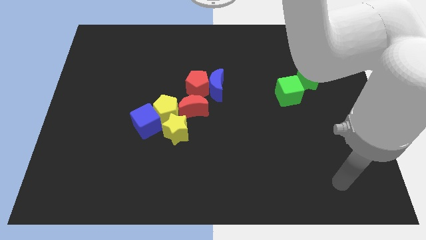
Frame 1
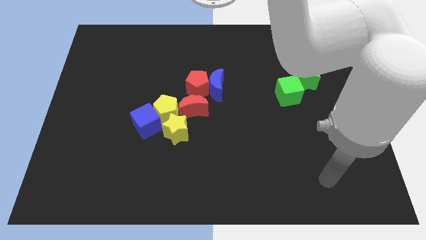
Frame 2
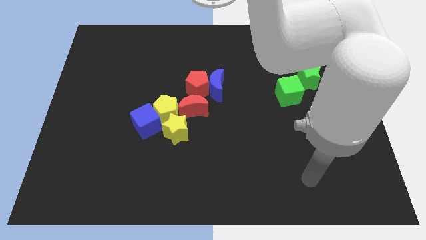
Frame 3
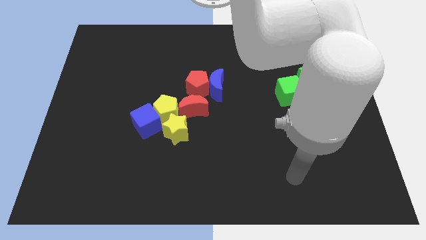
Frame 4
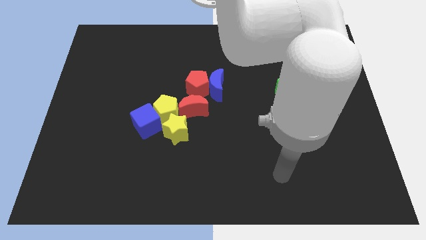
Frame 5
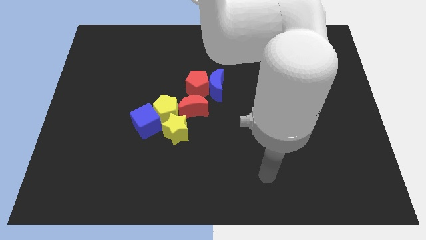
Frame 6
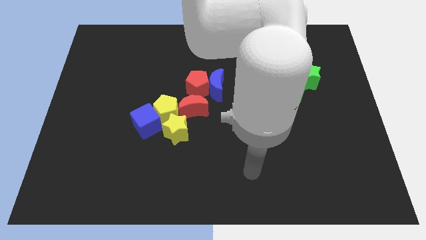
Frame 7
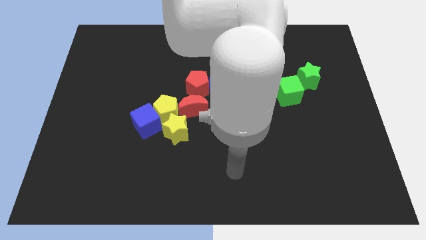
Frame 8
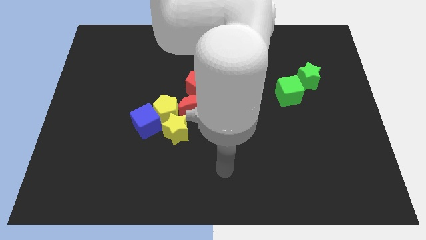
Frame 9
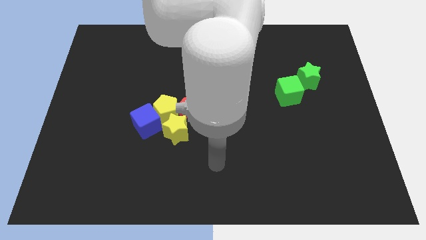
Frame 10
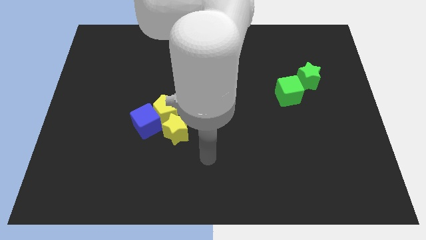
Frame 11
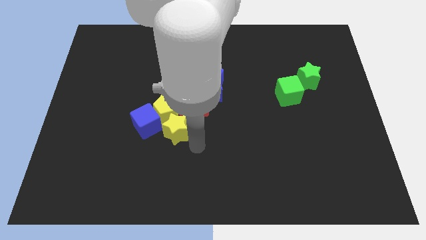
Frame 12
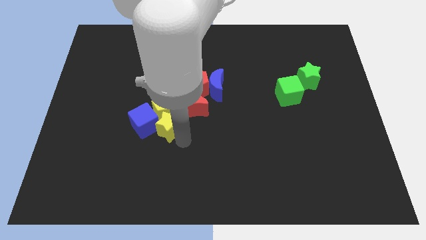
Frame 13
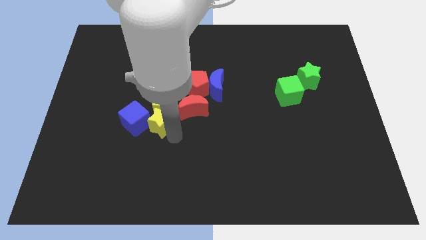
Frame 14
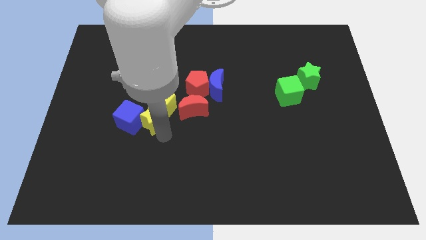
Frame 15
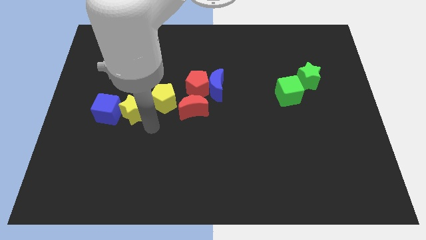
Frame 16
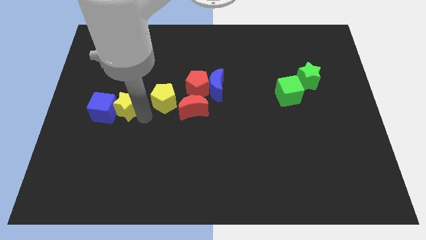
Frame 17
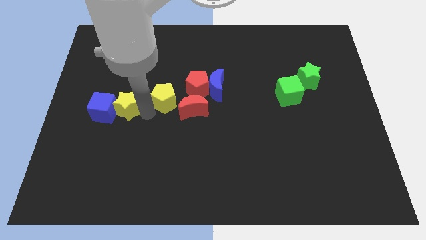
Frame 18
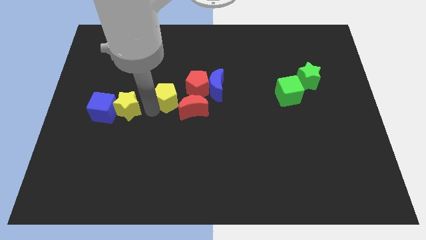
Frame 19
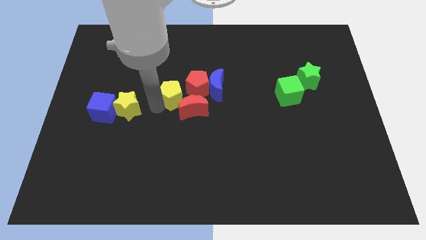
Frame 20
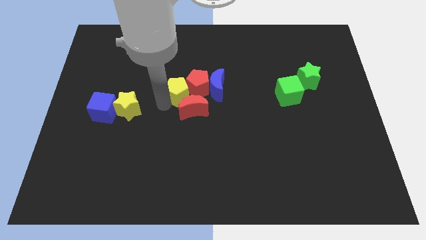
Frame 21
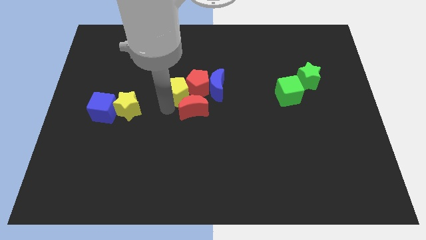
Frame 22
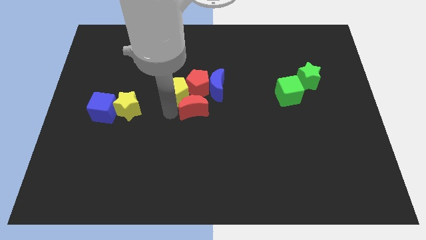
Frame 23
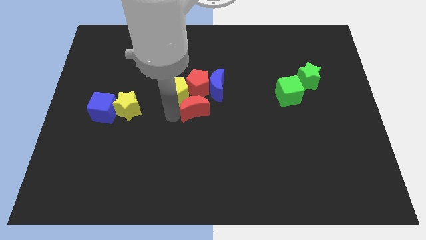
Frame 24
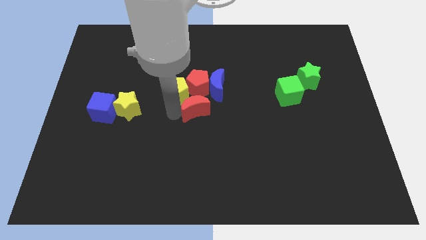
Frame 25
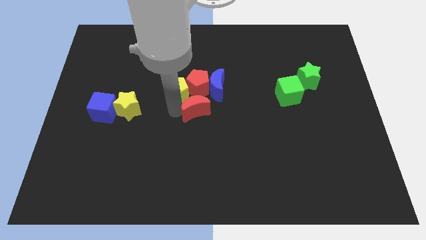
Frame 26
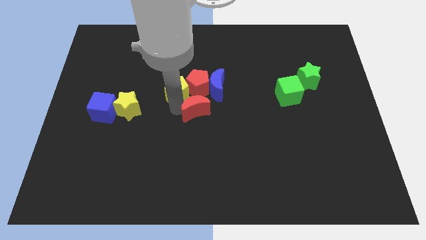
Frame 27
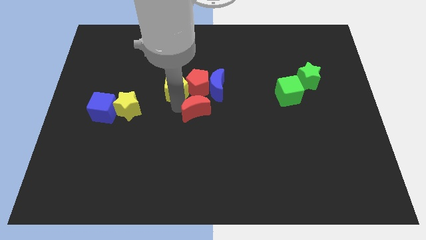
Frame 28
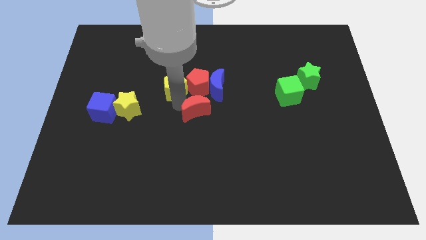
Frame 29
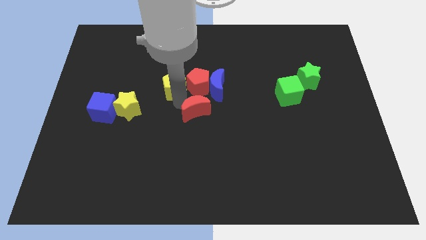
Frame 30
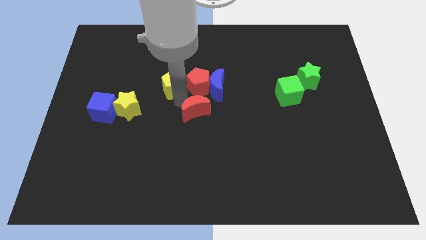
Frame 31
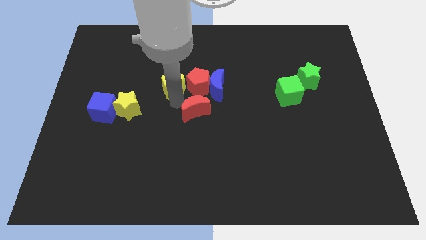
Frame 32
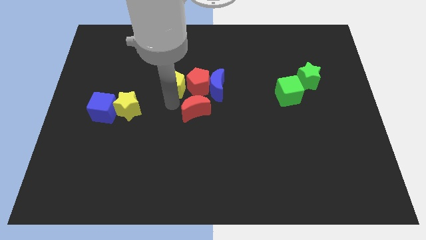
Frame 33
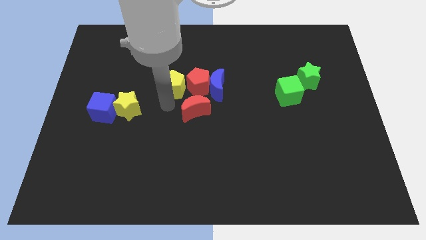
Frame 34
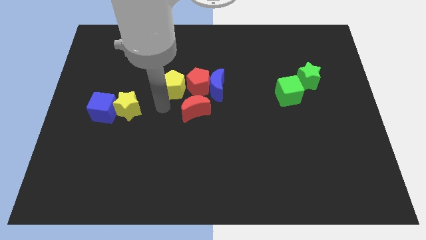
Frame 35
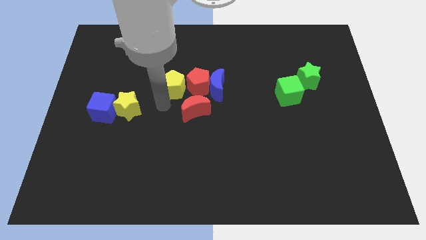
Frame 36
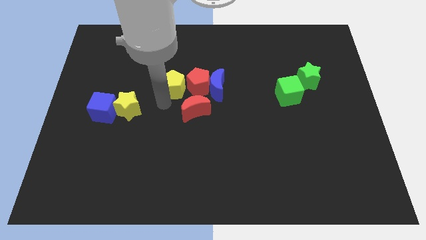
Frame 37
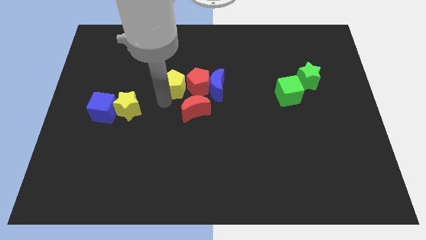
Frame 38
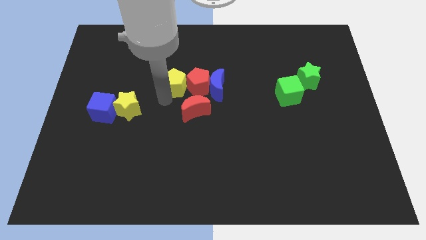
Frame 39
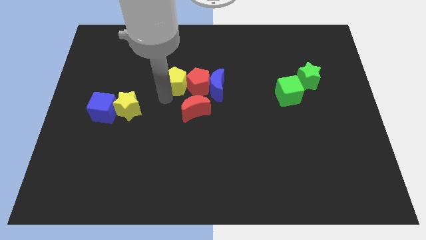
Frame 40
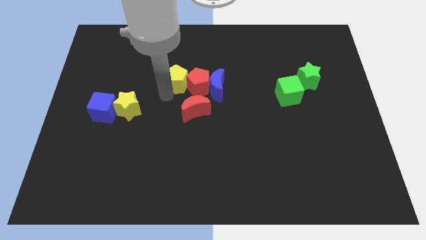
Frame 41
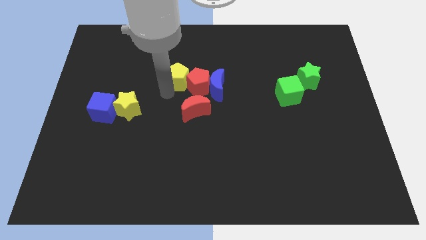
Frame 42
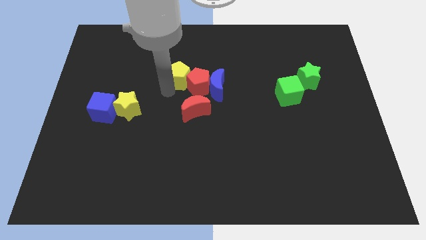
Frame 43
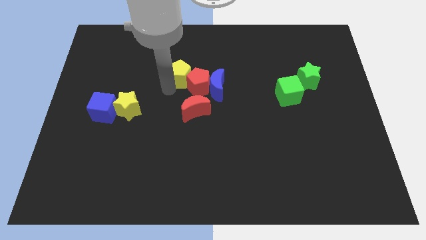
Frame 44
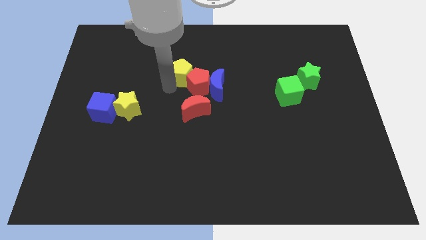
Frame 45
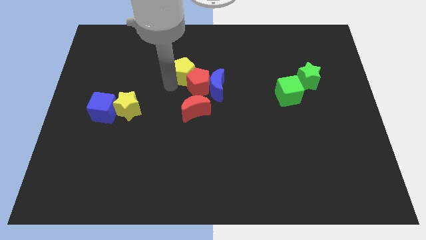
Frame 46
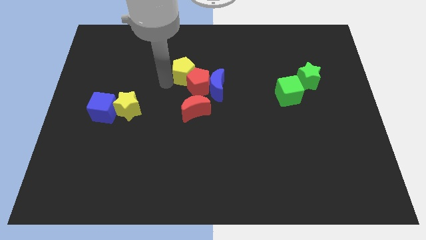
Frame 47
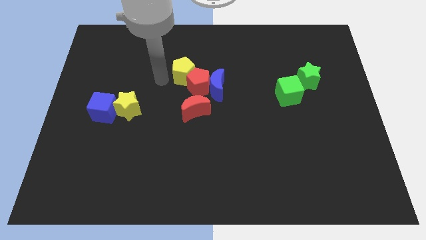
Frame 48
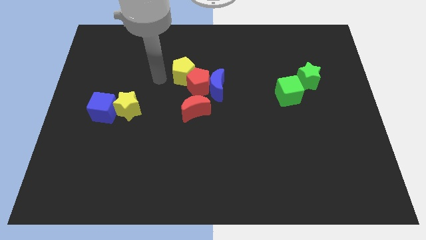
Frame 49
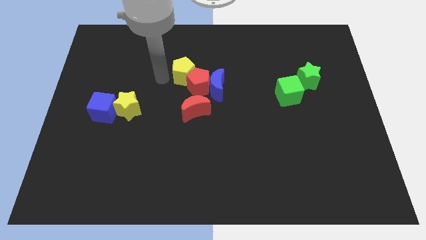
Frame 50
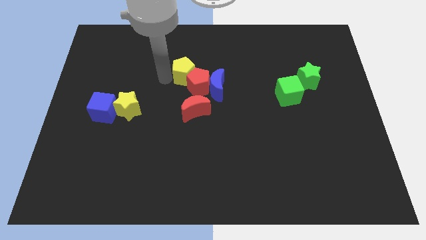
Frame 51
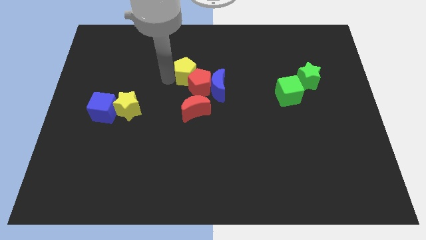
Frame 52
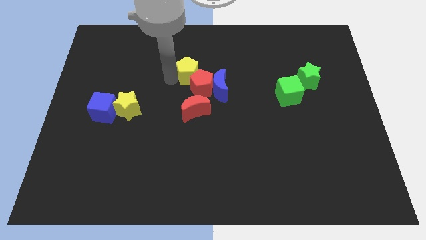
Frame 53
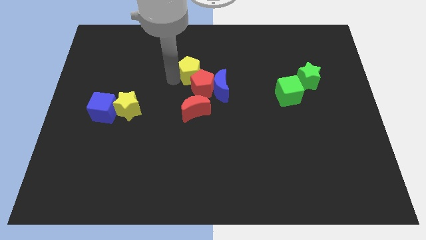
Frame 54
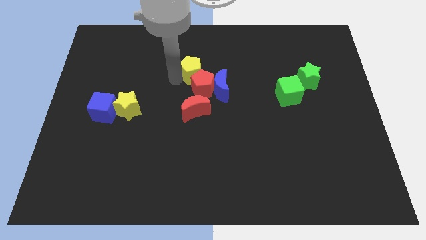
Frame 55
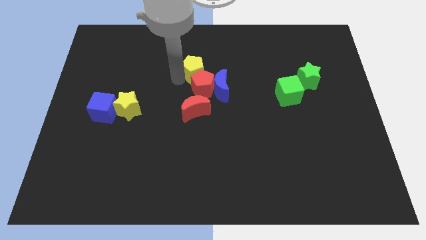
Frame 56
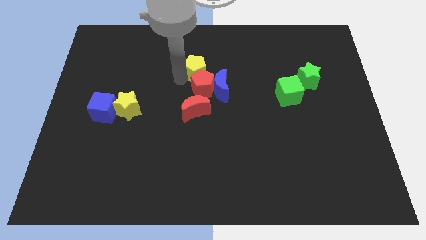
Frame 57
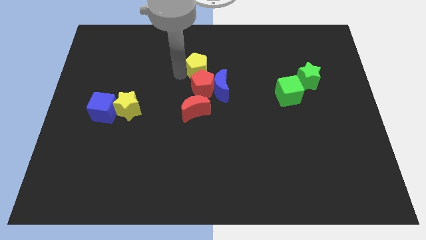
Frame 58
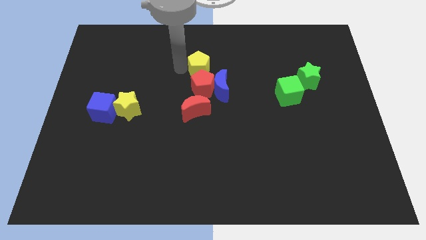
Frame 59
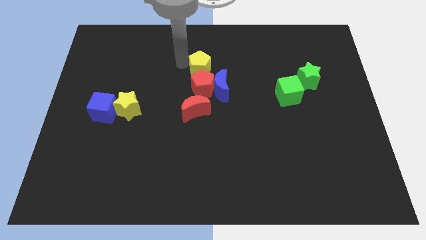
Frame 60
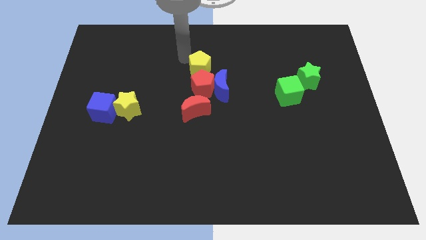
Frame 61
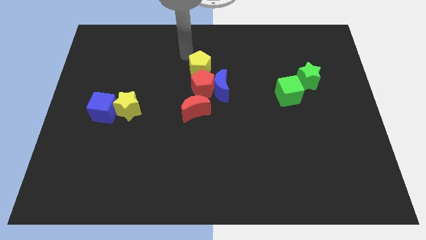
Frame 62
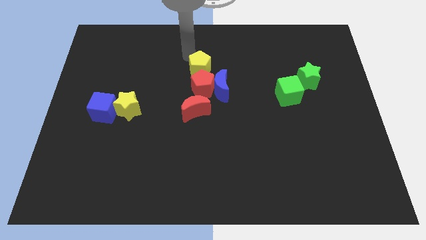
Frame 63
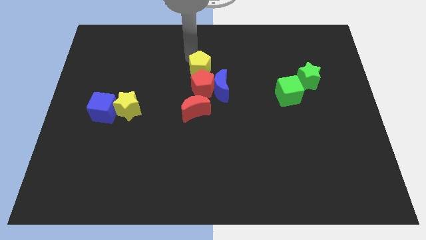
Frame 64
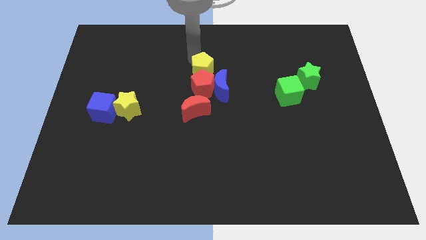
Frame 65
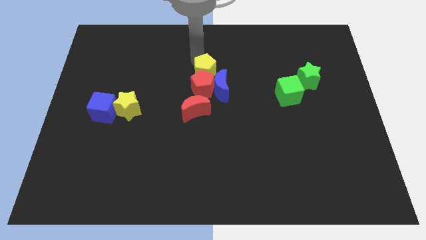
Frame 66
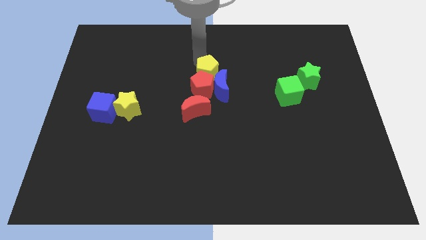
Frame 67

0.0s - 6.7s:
slide the yellow pentagon close to the blue moon
